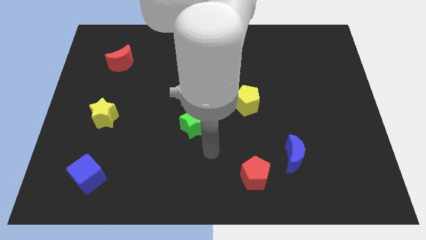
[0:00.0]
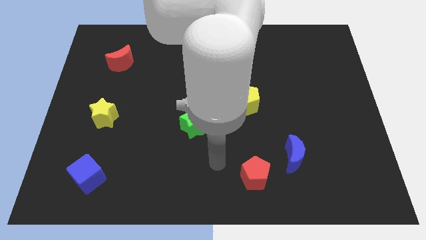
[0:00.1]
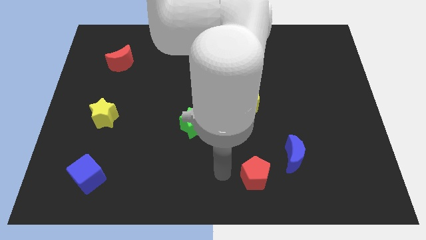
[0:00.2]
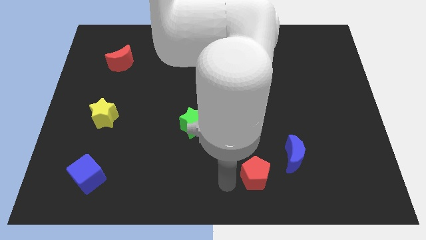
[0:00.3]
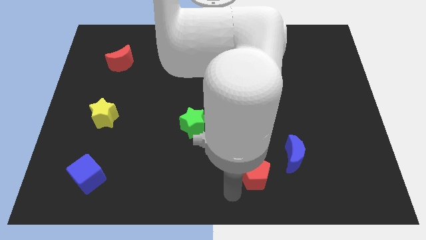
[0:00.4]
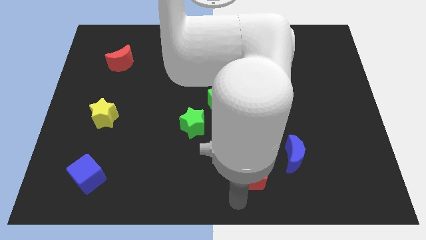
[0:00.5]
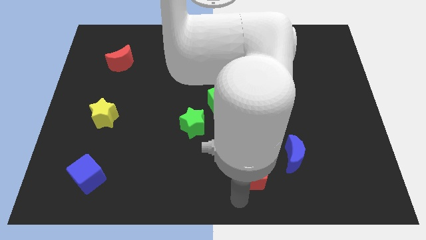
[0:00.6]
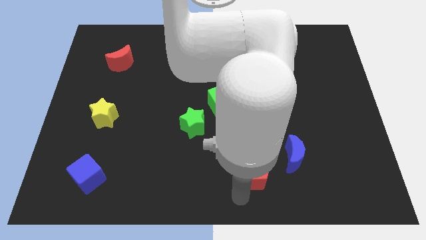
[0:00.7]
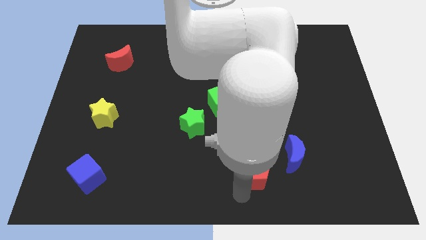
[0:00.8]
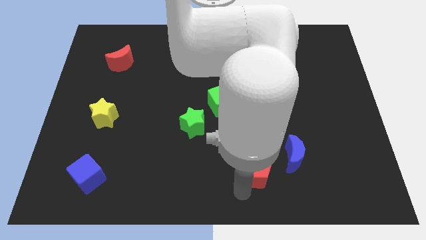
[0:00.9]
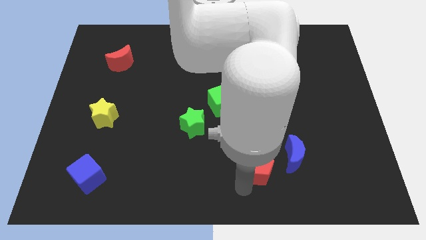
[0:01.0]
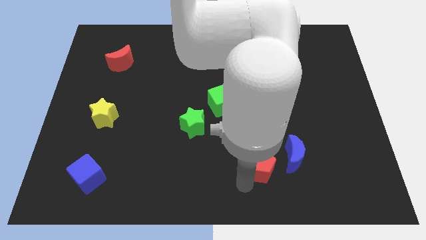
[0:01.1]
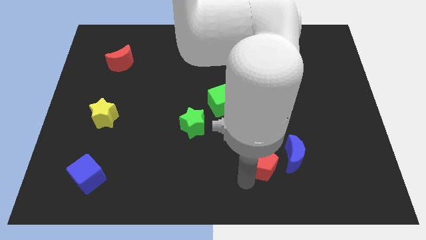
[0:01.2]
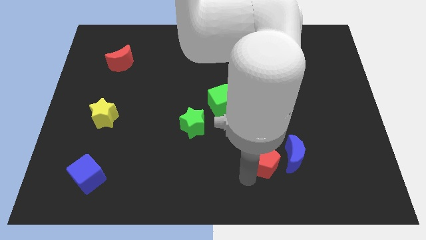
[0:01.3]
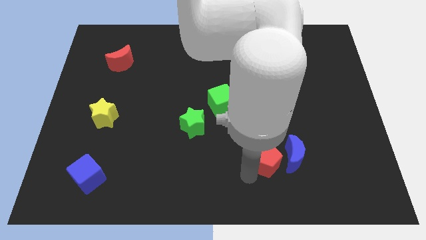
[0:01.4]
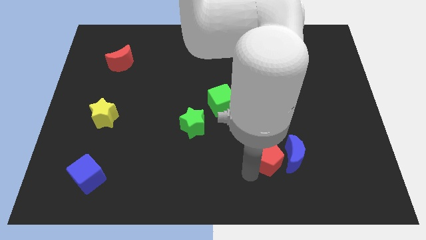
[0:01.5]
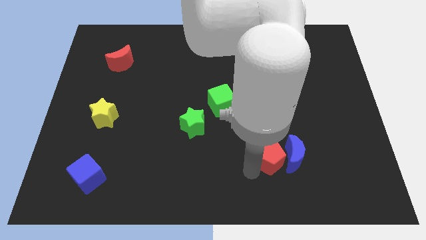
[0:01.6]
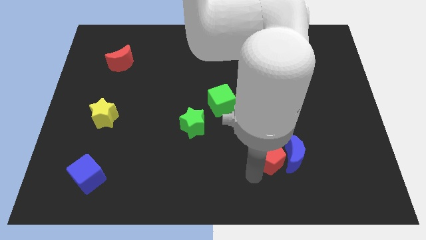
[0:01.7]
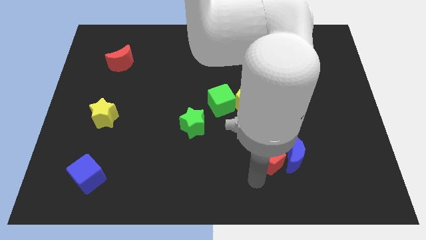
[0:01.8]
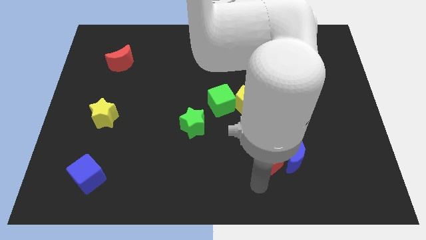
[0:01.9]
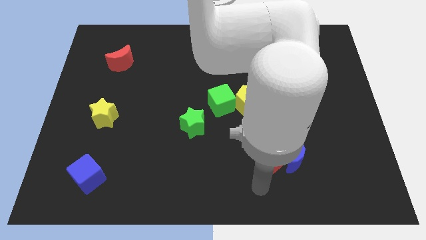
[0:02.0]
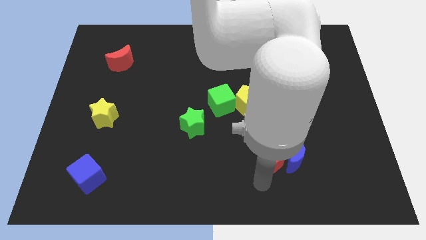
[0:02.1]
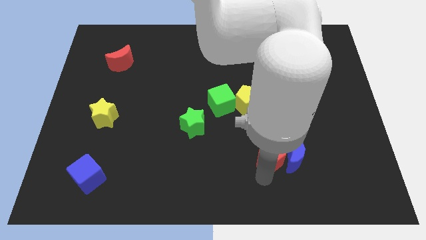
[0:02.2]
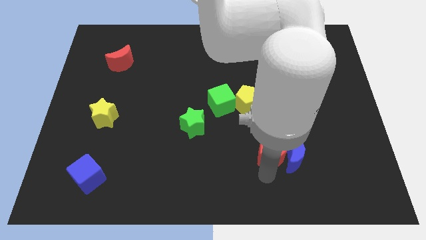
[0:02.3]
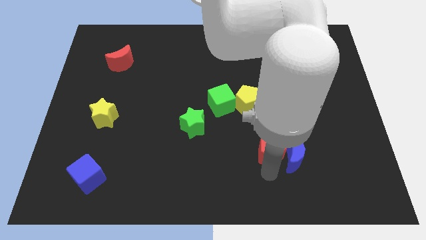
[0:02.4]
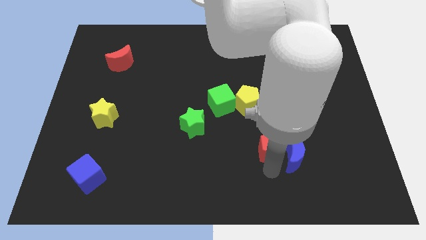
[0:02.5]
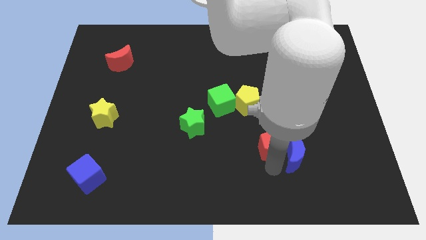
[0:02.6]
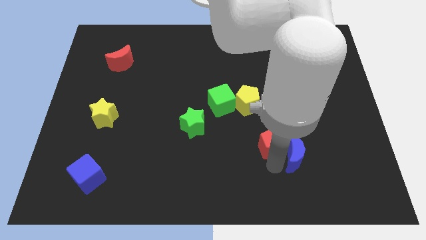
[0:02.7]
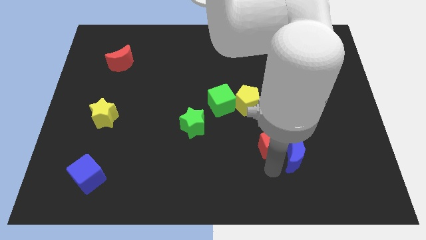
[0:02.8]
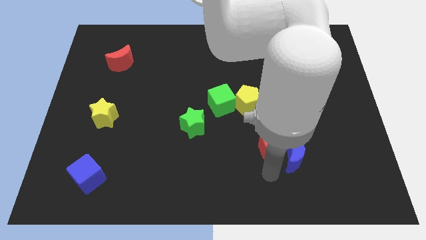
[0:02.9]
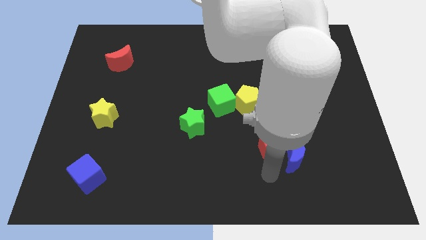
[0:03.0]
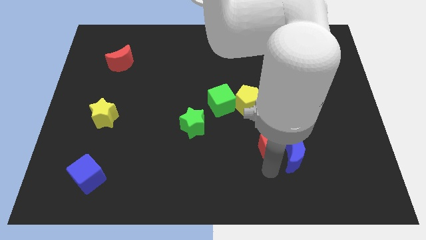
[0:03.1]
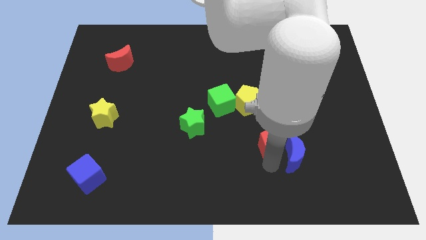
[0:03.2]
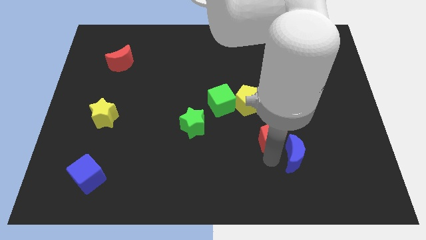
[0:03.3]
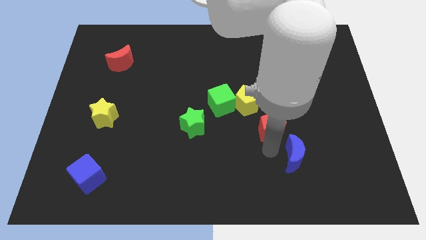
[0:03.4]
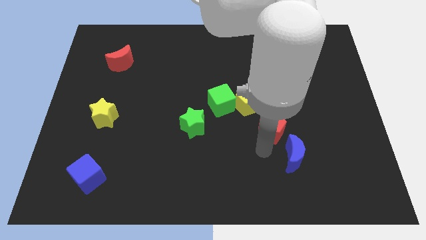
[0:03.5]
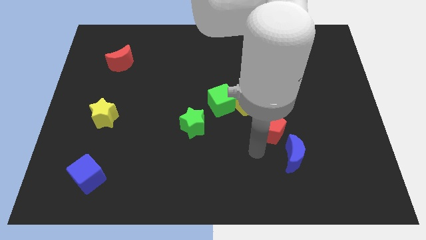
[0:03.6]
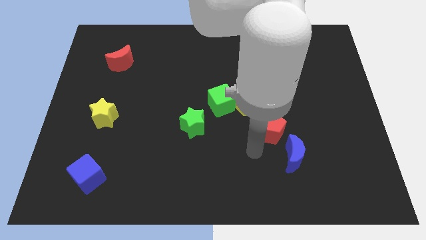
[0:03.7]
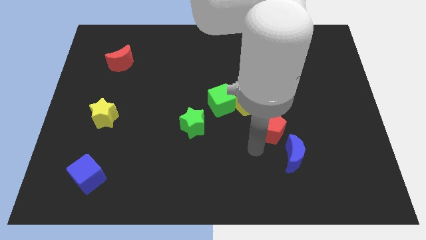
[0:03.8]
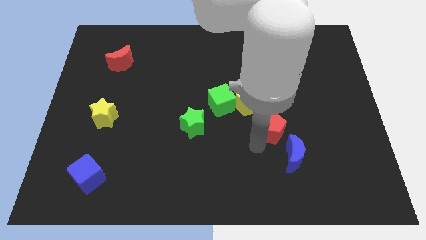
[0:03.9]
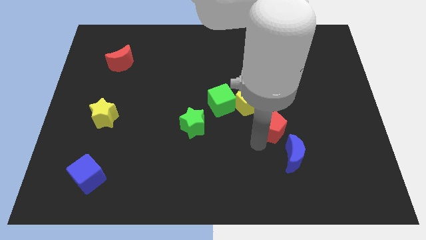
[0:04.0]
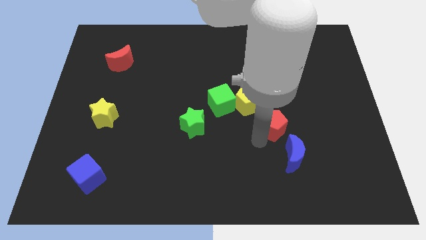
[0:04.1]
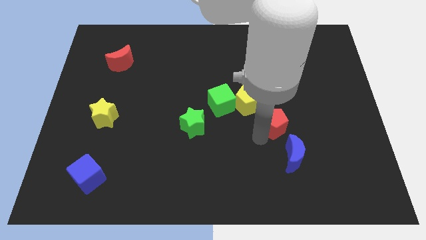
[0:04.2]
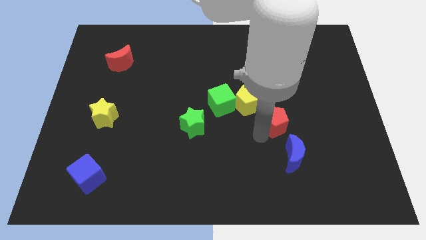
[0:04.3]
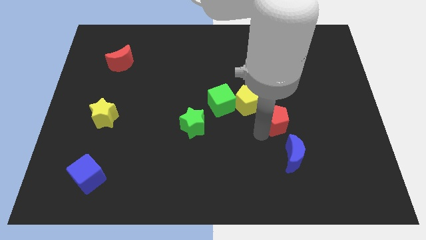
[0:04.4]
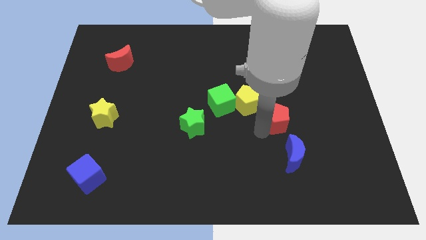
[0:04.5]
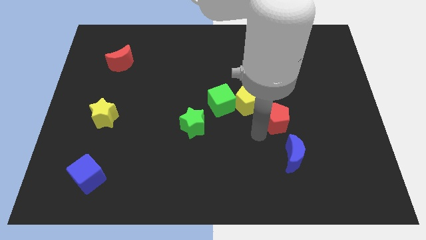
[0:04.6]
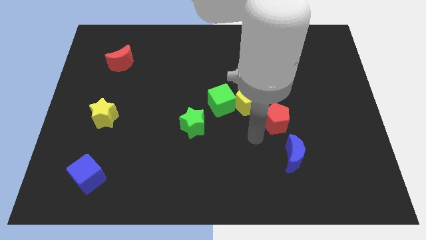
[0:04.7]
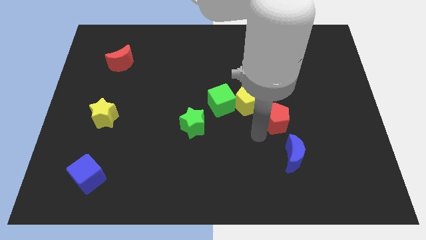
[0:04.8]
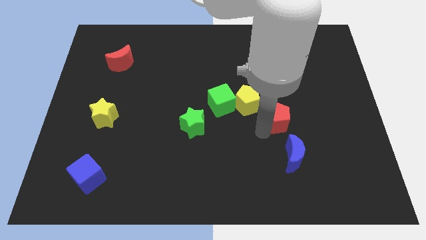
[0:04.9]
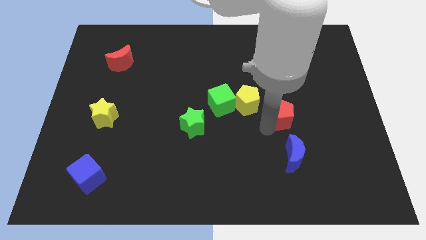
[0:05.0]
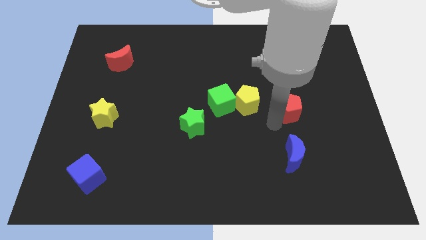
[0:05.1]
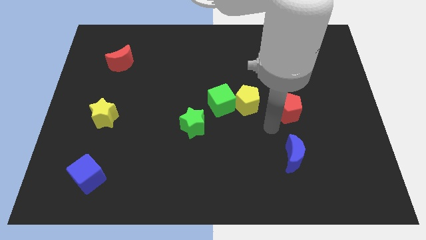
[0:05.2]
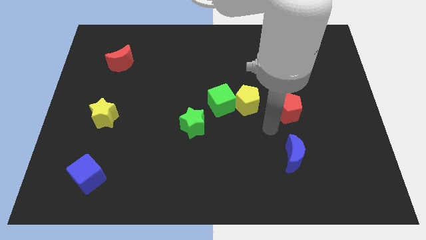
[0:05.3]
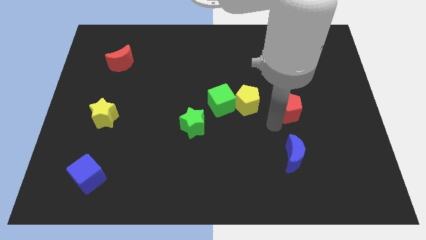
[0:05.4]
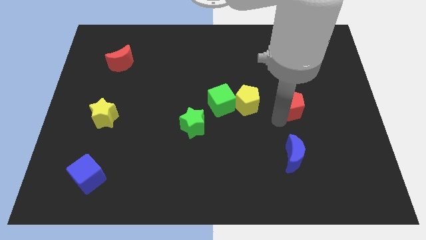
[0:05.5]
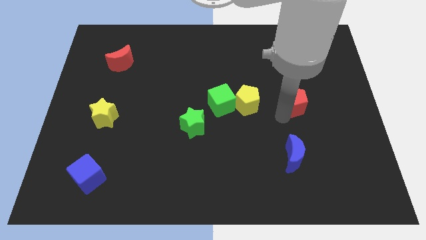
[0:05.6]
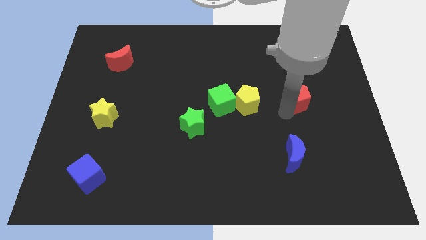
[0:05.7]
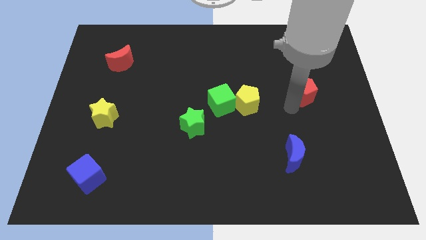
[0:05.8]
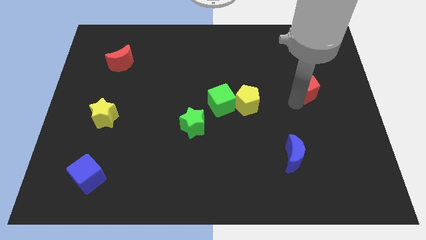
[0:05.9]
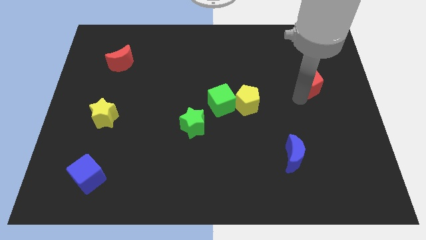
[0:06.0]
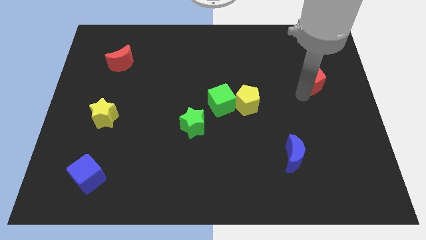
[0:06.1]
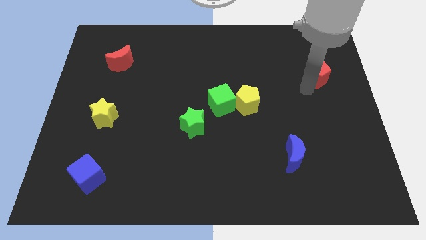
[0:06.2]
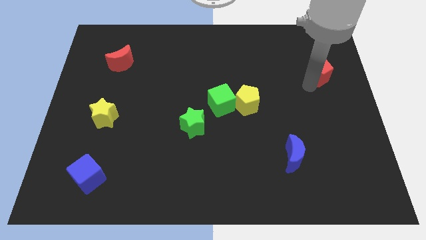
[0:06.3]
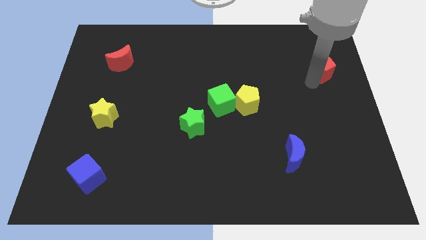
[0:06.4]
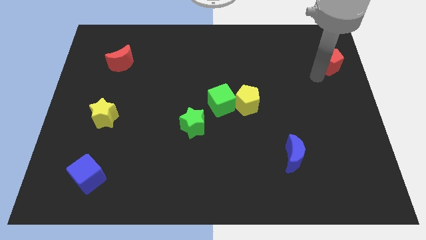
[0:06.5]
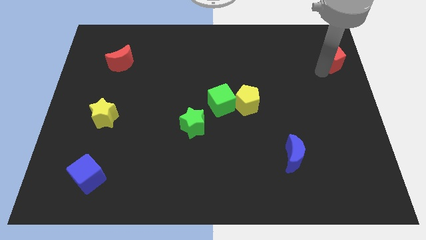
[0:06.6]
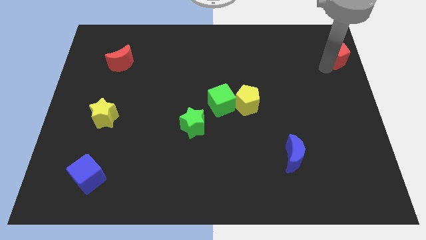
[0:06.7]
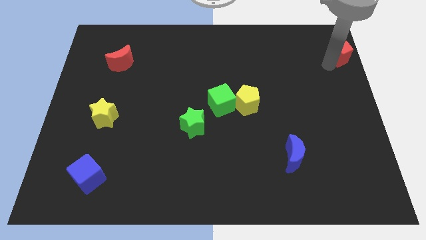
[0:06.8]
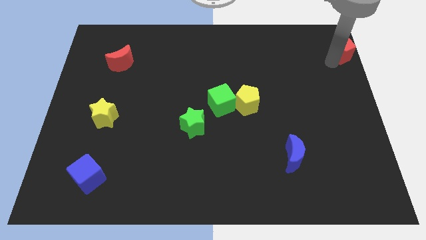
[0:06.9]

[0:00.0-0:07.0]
push the red pentagon to the top right corner
